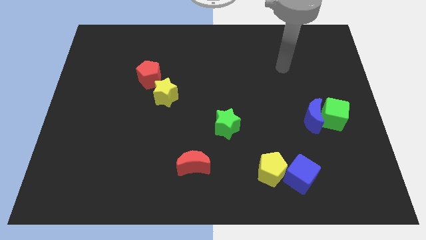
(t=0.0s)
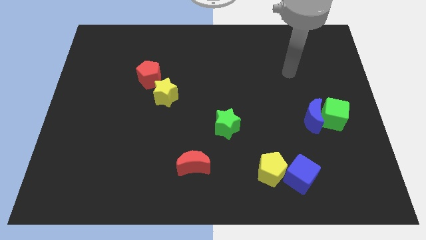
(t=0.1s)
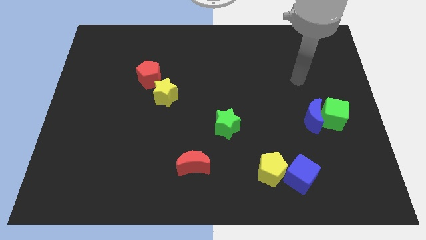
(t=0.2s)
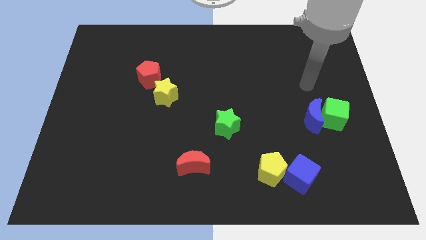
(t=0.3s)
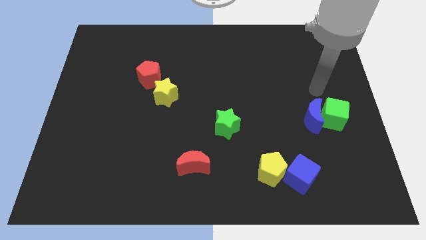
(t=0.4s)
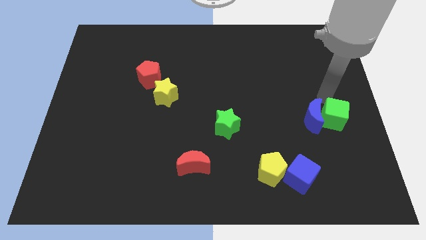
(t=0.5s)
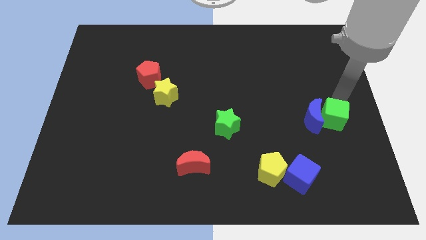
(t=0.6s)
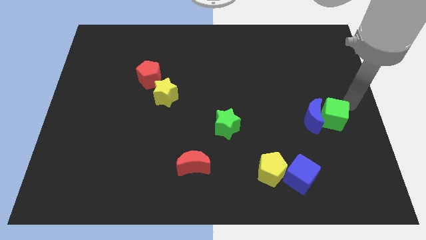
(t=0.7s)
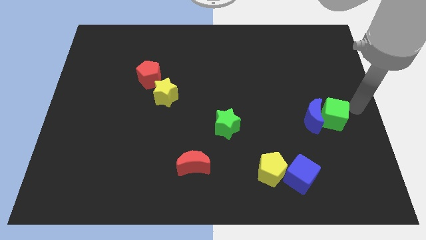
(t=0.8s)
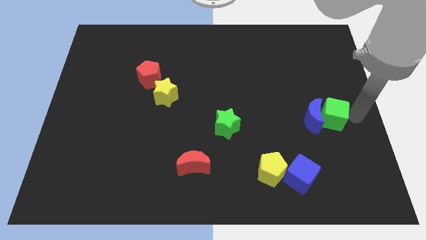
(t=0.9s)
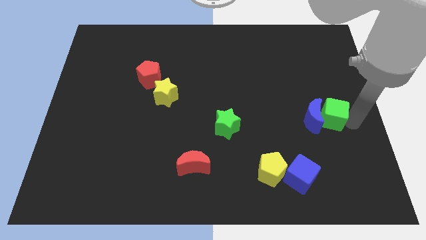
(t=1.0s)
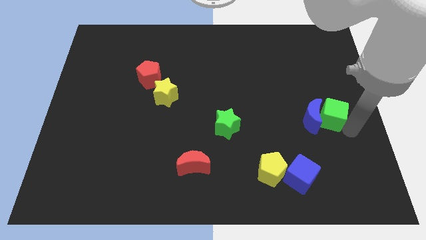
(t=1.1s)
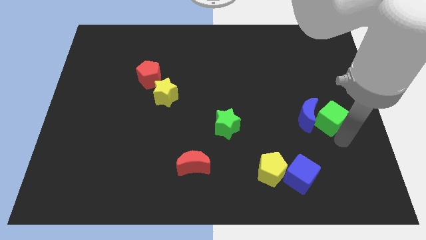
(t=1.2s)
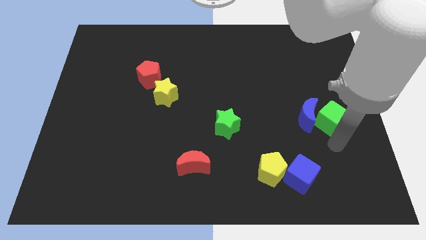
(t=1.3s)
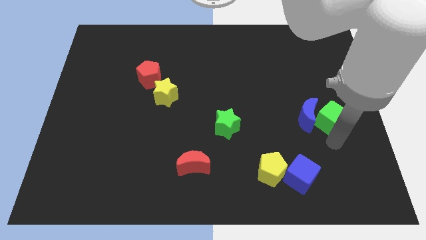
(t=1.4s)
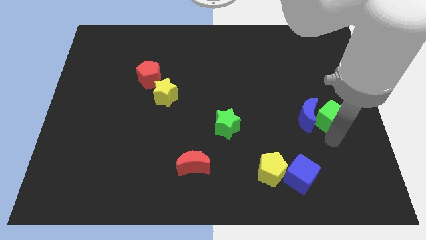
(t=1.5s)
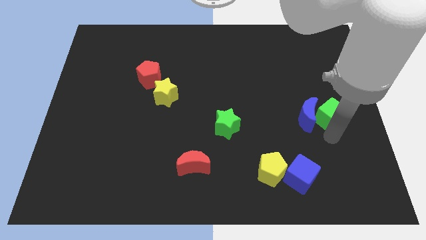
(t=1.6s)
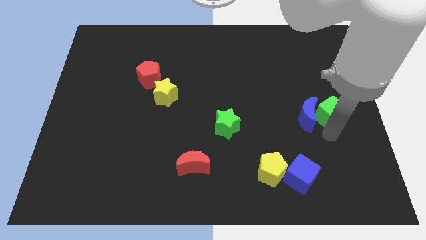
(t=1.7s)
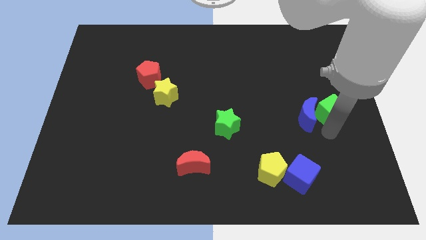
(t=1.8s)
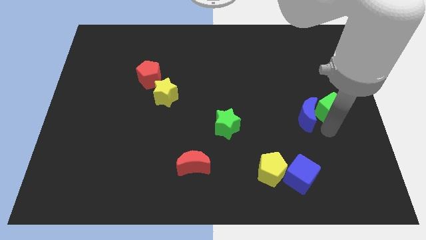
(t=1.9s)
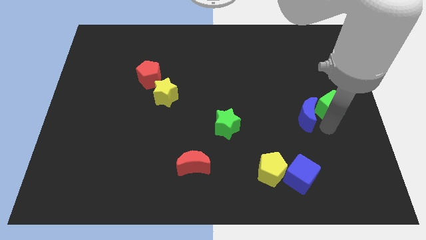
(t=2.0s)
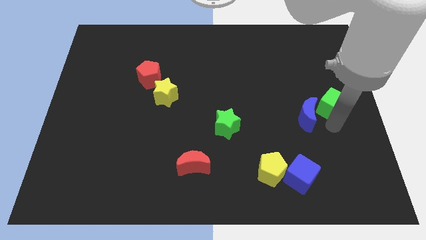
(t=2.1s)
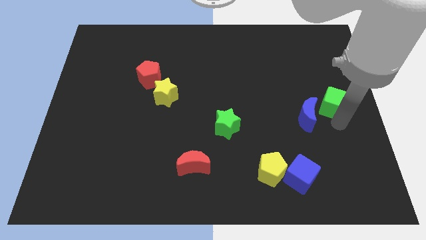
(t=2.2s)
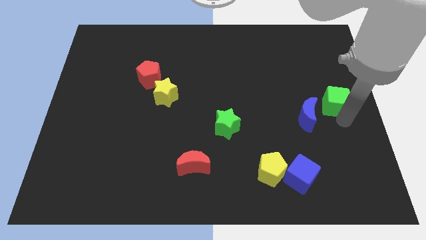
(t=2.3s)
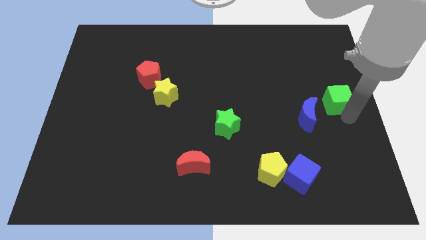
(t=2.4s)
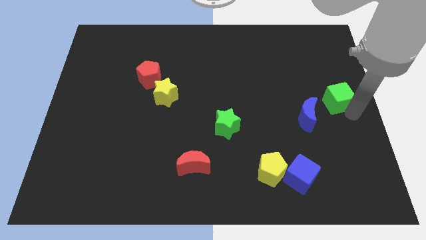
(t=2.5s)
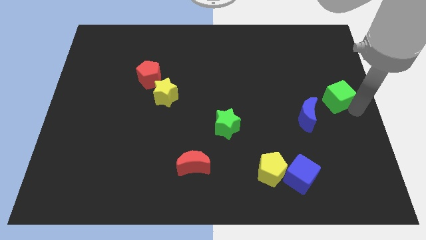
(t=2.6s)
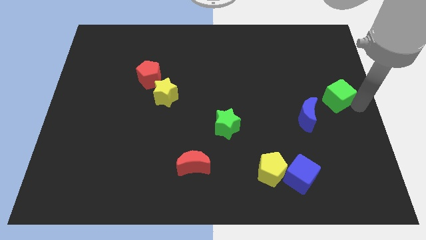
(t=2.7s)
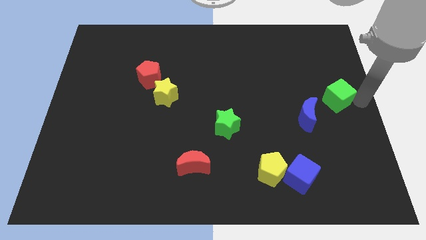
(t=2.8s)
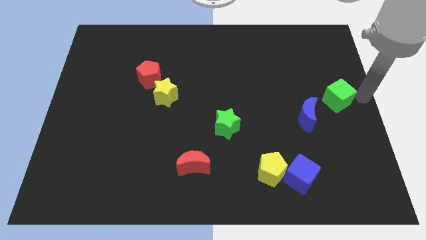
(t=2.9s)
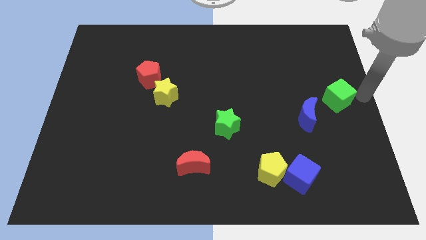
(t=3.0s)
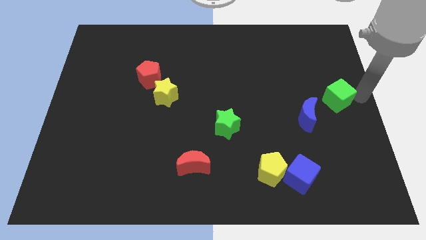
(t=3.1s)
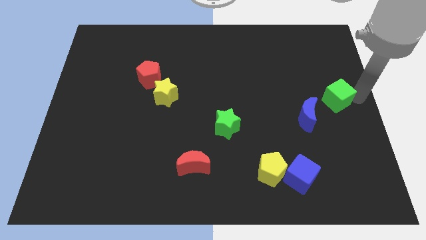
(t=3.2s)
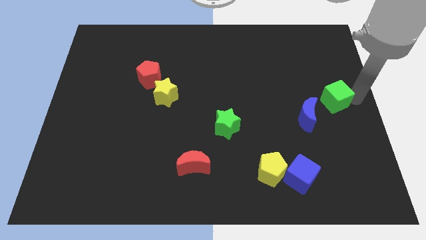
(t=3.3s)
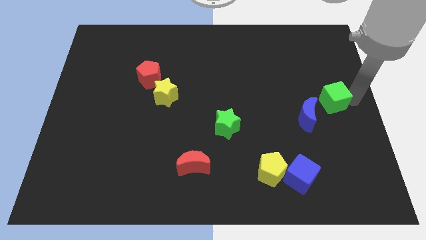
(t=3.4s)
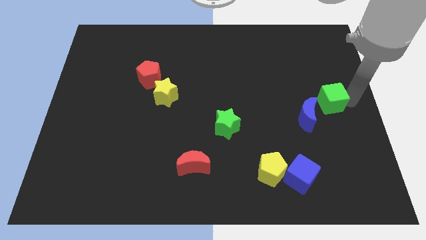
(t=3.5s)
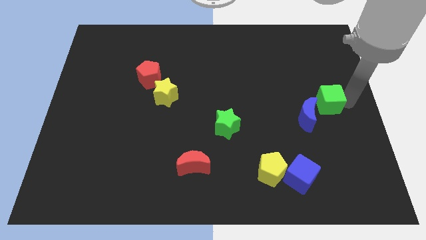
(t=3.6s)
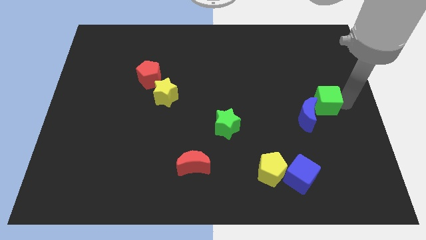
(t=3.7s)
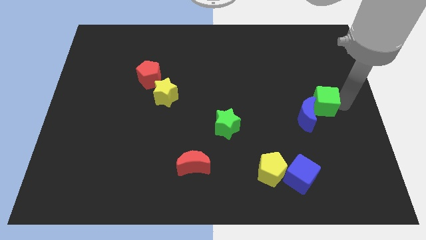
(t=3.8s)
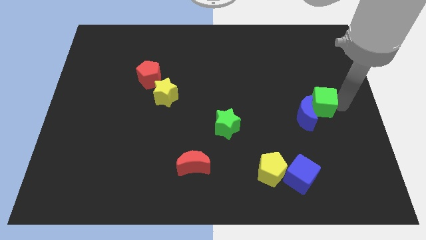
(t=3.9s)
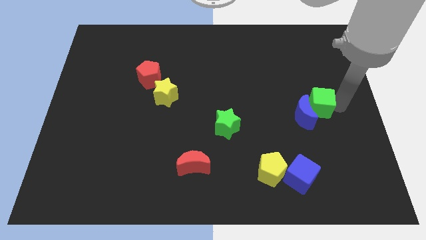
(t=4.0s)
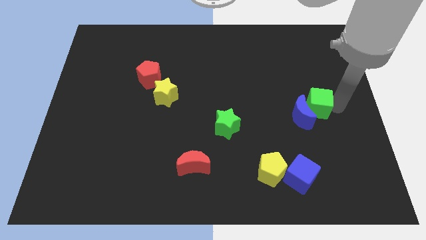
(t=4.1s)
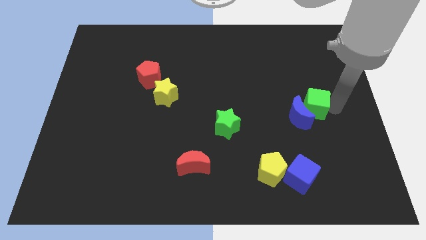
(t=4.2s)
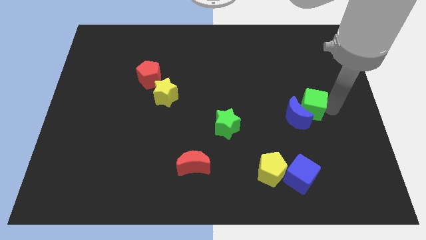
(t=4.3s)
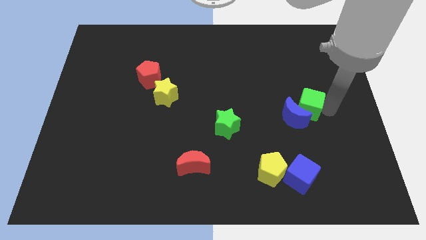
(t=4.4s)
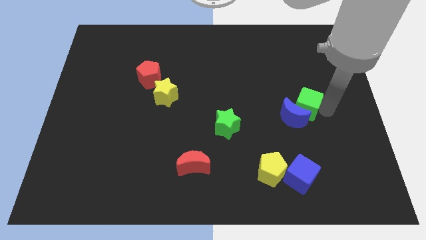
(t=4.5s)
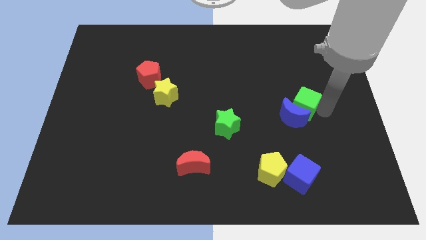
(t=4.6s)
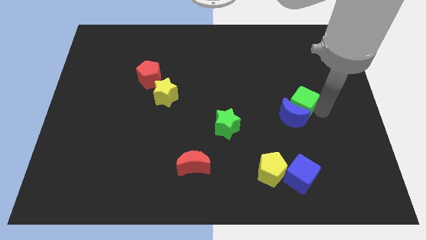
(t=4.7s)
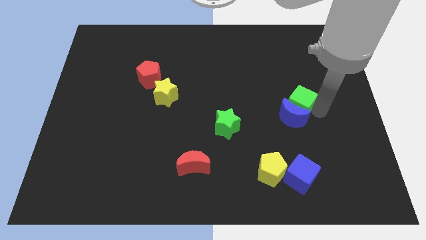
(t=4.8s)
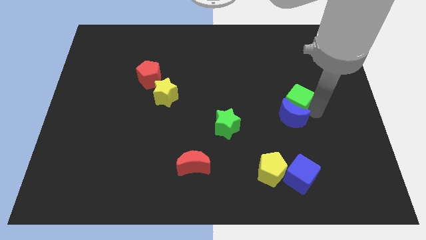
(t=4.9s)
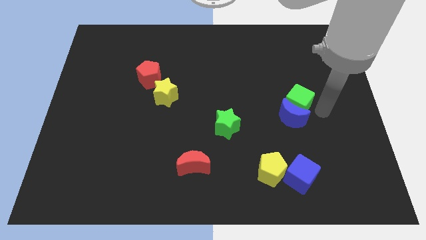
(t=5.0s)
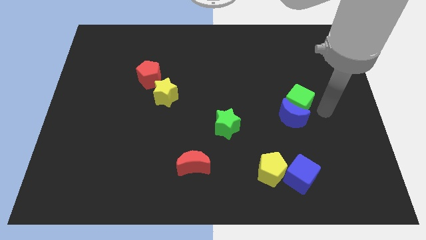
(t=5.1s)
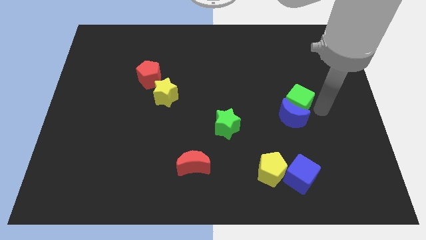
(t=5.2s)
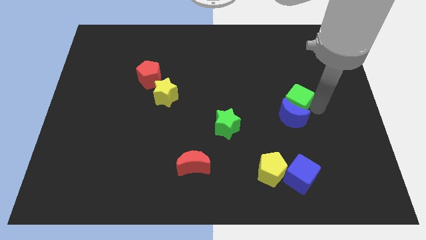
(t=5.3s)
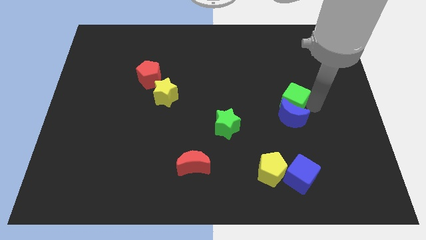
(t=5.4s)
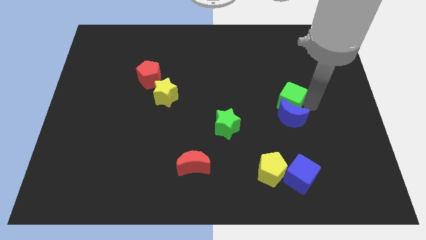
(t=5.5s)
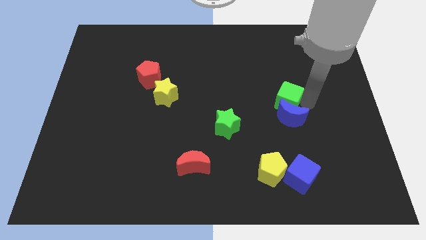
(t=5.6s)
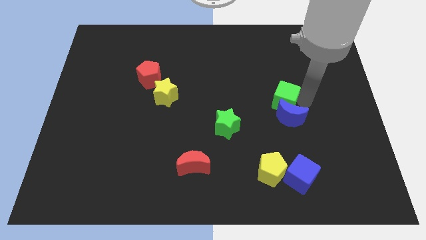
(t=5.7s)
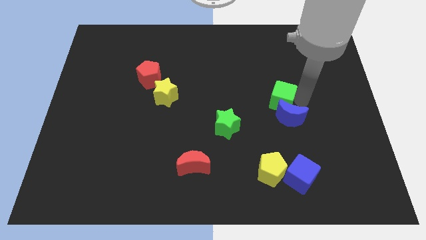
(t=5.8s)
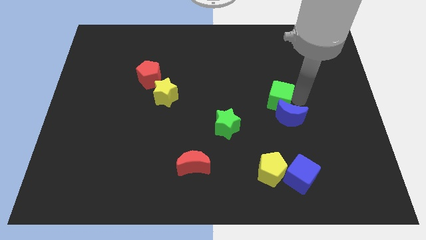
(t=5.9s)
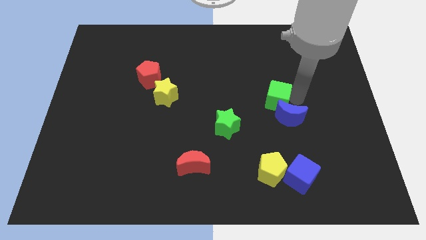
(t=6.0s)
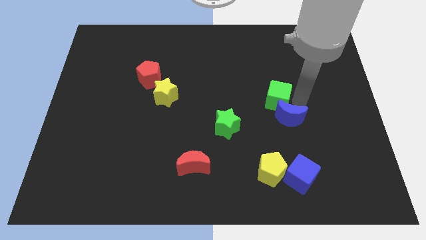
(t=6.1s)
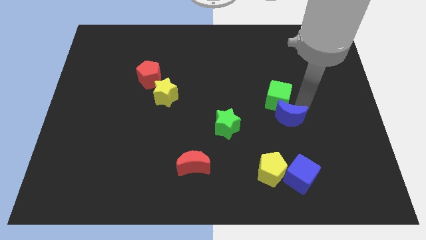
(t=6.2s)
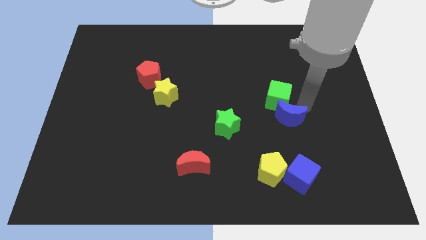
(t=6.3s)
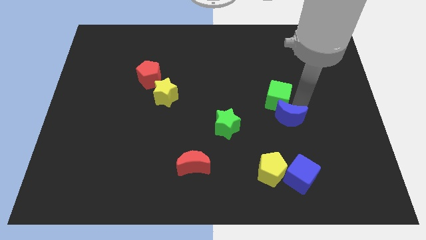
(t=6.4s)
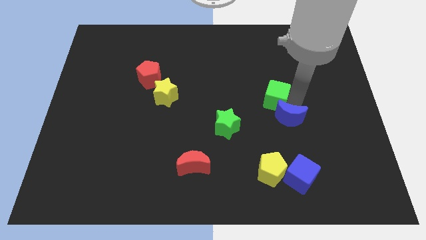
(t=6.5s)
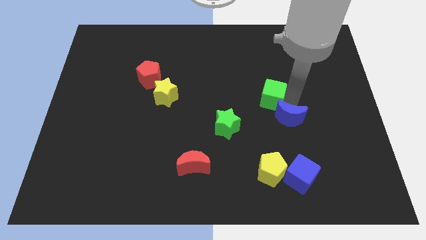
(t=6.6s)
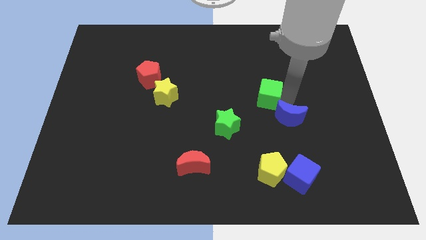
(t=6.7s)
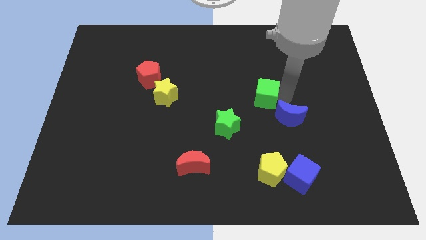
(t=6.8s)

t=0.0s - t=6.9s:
move the green cube to the middle
